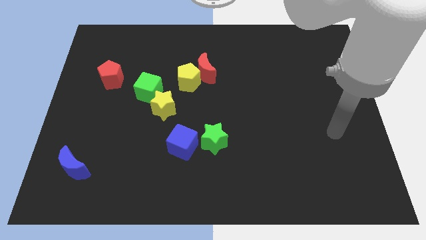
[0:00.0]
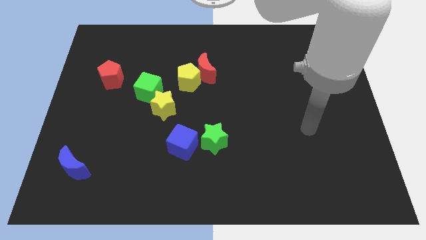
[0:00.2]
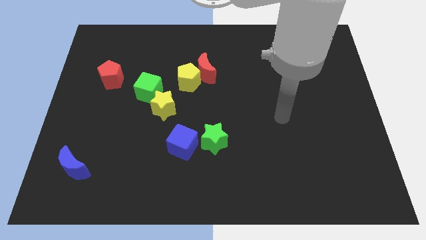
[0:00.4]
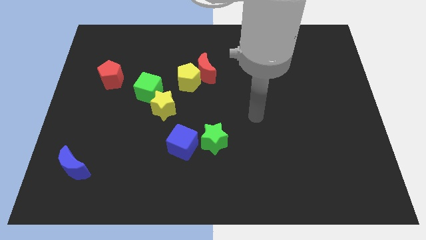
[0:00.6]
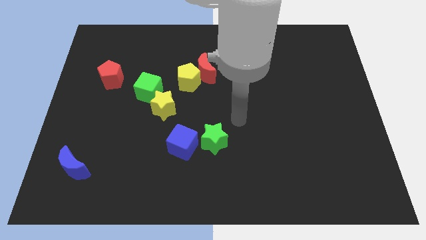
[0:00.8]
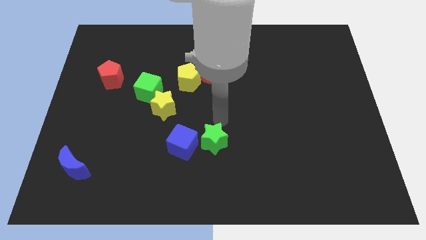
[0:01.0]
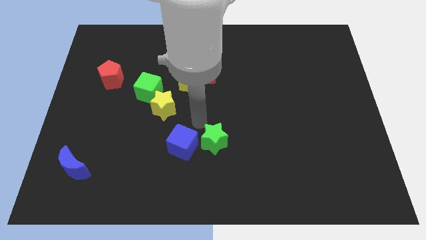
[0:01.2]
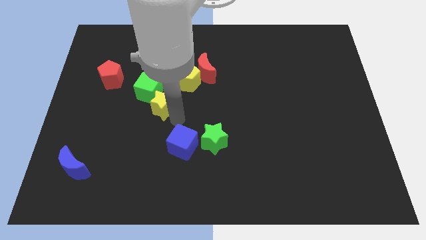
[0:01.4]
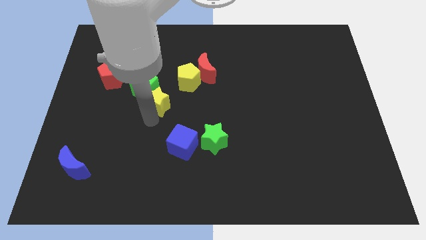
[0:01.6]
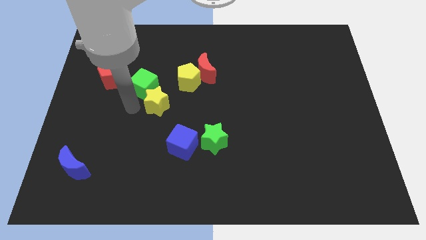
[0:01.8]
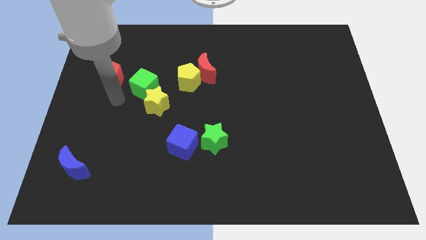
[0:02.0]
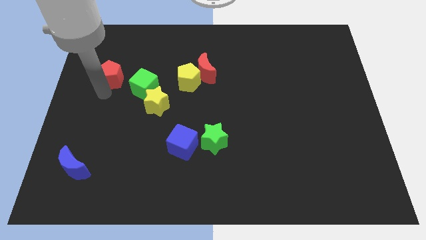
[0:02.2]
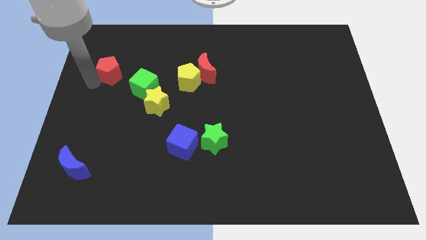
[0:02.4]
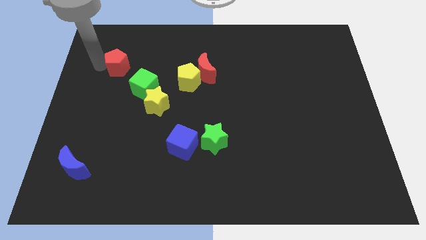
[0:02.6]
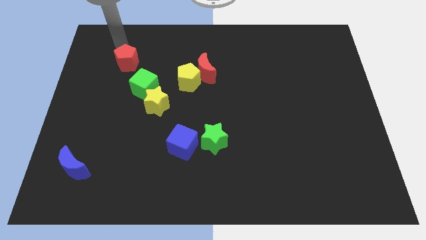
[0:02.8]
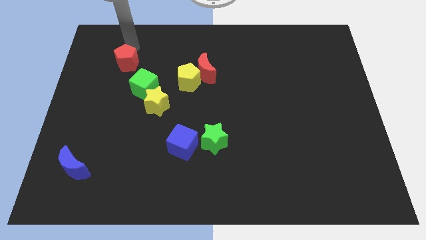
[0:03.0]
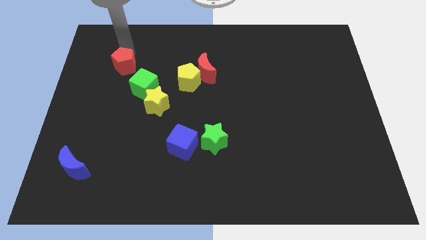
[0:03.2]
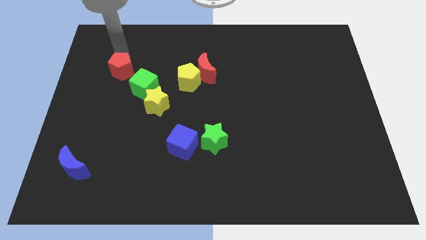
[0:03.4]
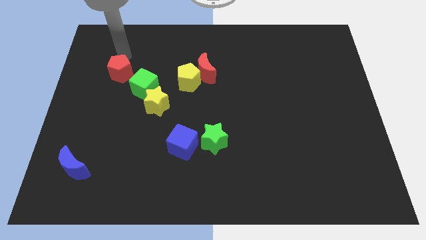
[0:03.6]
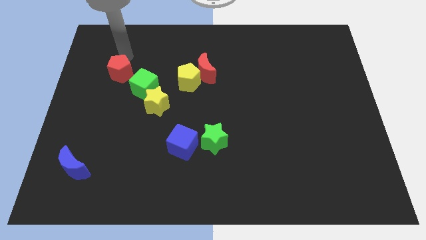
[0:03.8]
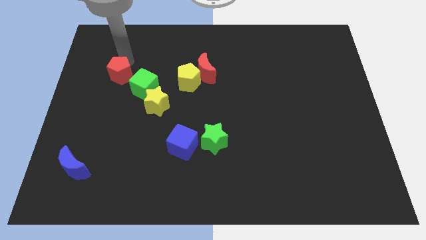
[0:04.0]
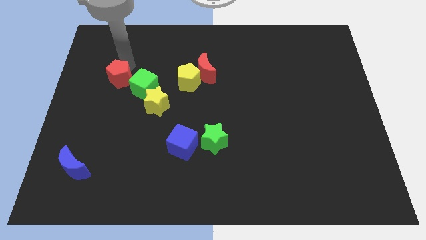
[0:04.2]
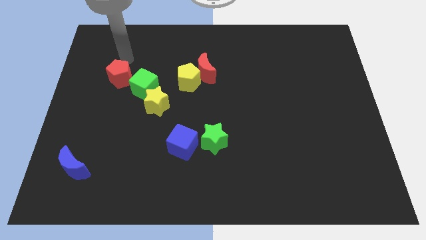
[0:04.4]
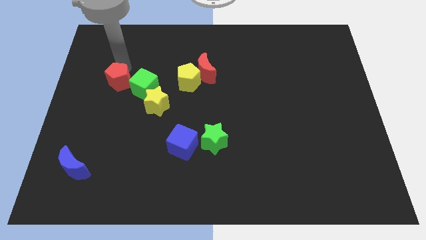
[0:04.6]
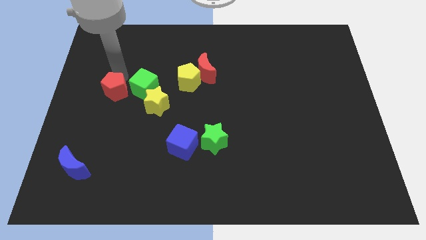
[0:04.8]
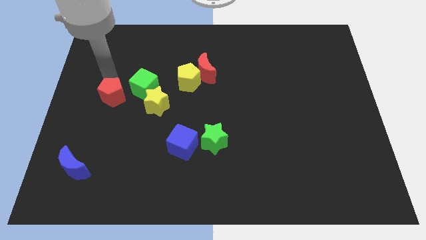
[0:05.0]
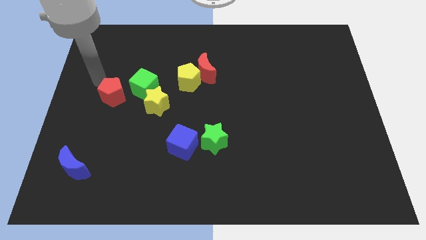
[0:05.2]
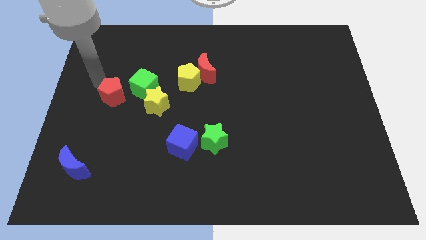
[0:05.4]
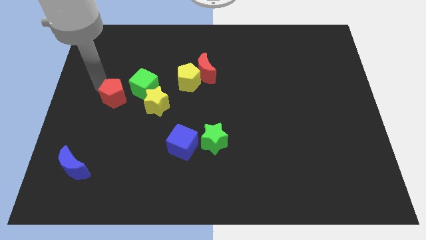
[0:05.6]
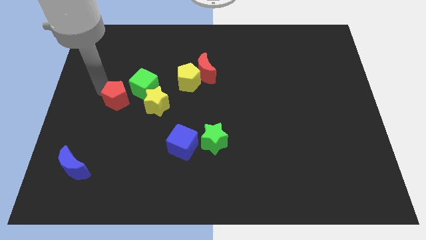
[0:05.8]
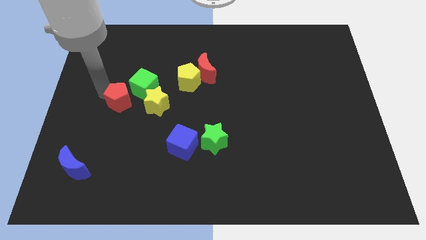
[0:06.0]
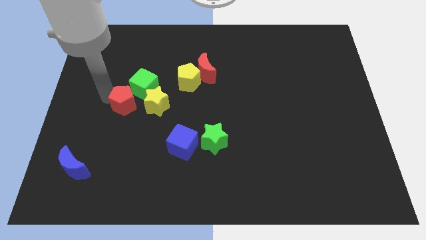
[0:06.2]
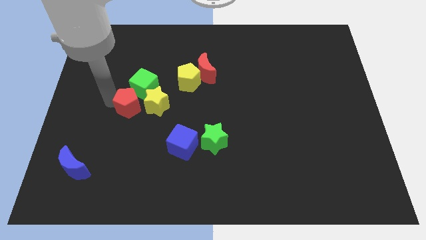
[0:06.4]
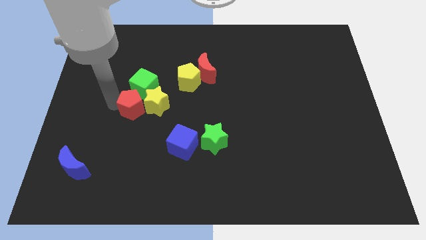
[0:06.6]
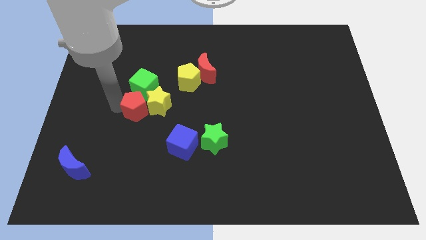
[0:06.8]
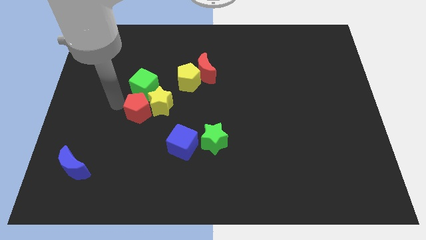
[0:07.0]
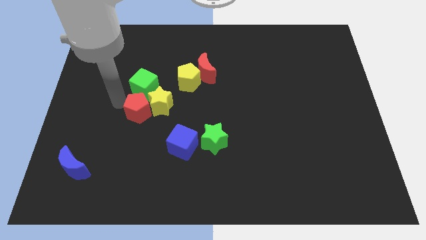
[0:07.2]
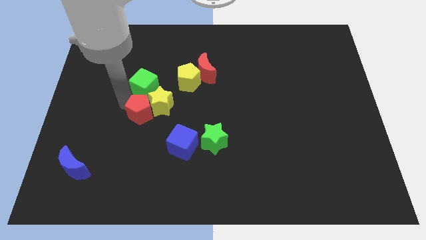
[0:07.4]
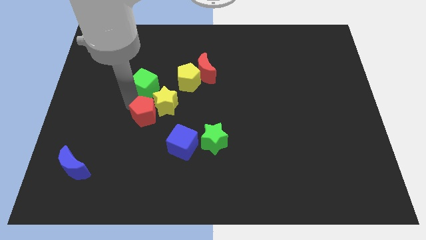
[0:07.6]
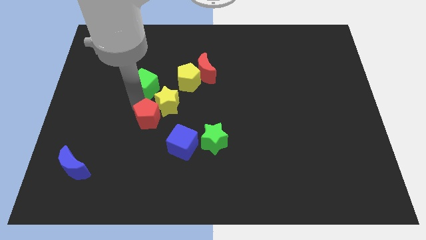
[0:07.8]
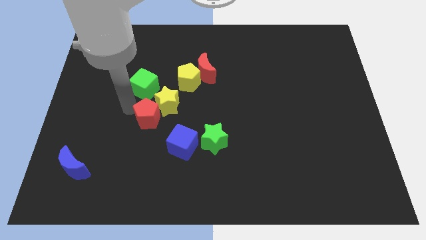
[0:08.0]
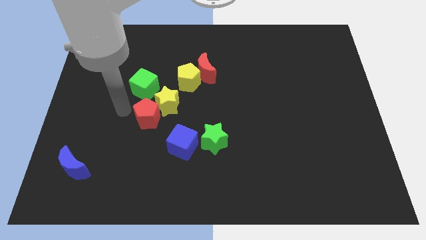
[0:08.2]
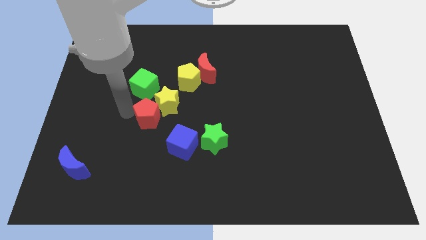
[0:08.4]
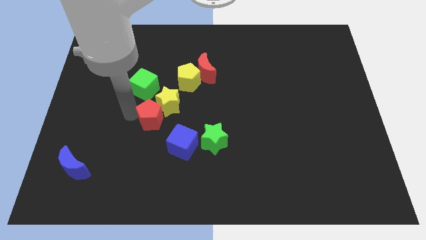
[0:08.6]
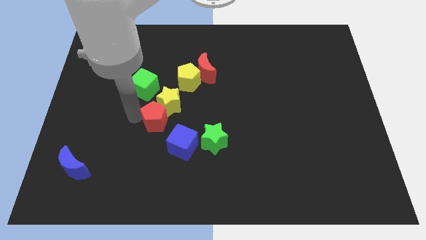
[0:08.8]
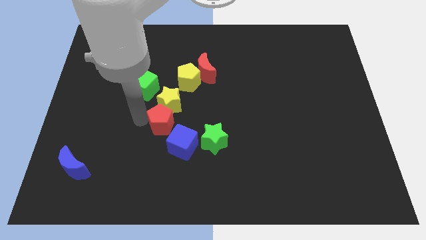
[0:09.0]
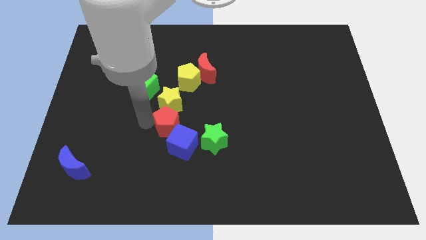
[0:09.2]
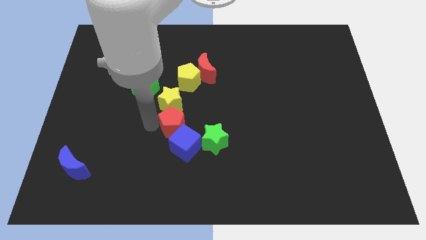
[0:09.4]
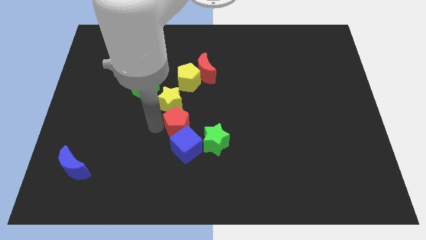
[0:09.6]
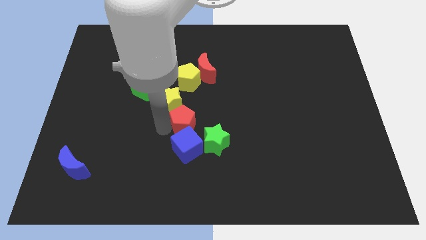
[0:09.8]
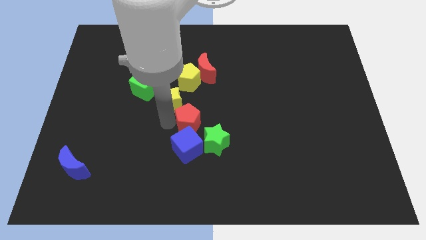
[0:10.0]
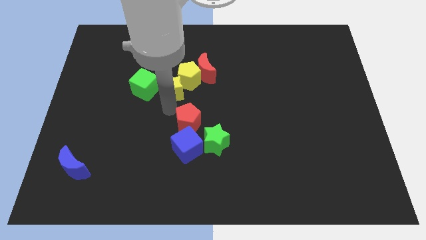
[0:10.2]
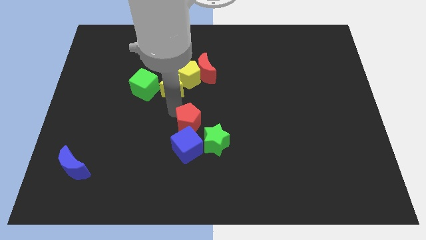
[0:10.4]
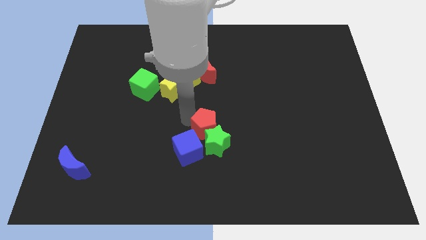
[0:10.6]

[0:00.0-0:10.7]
push the red pentagon next to the green star

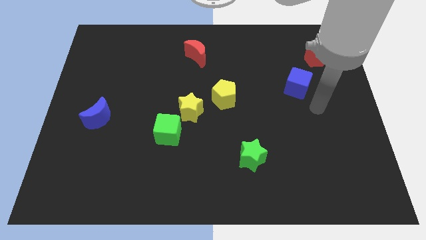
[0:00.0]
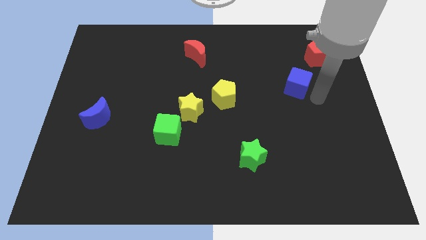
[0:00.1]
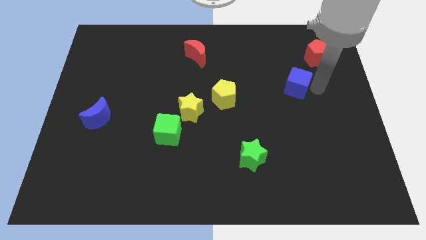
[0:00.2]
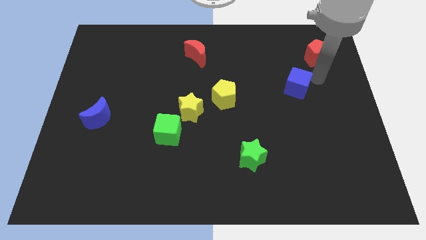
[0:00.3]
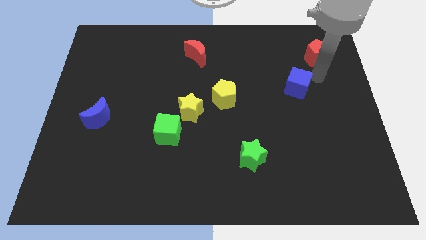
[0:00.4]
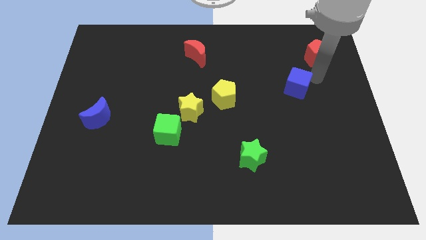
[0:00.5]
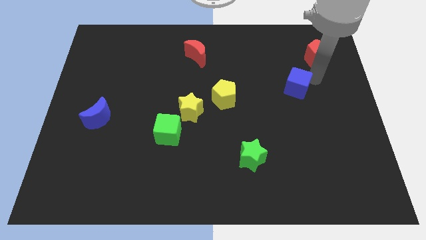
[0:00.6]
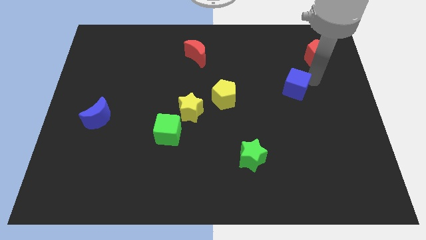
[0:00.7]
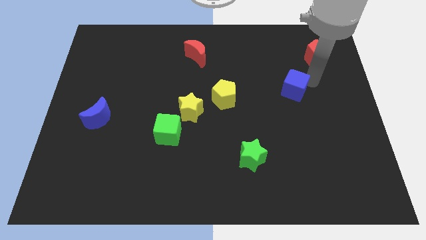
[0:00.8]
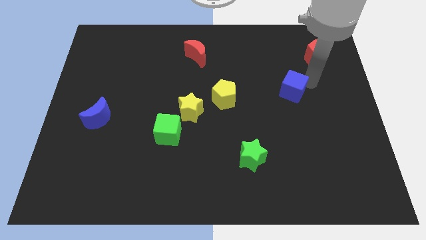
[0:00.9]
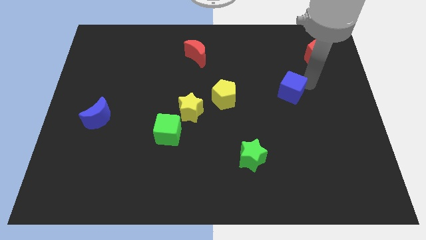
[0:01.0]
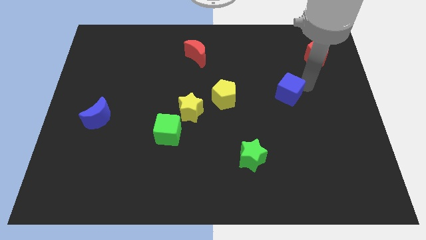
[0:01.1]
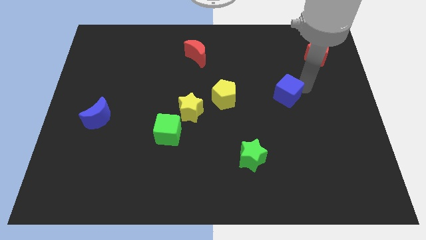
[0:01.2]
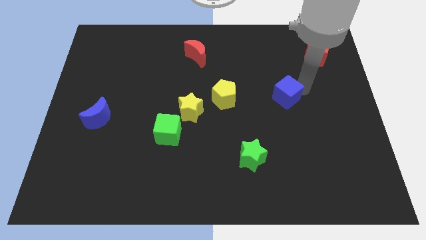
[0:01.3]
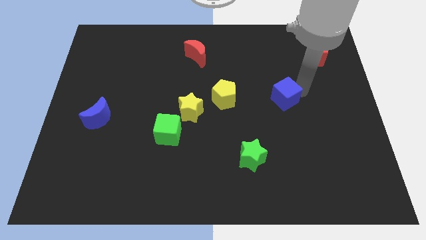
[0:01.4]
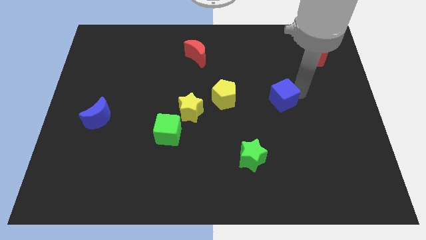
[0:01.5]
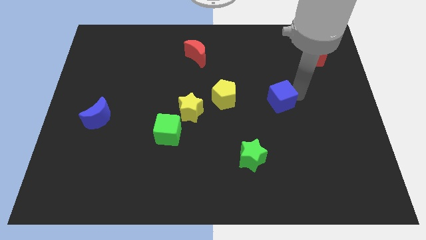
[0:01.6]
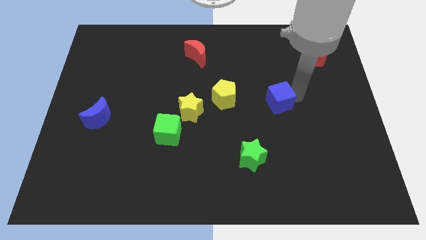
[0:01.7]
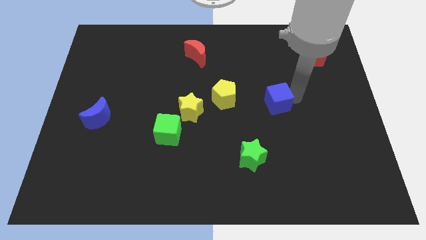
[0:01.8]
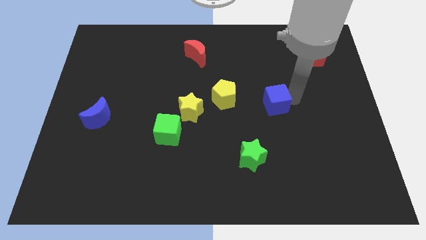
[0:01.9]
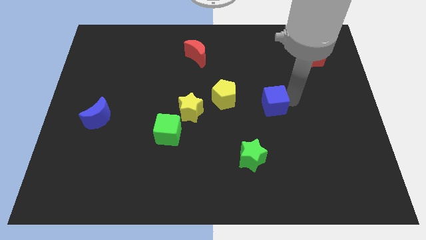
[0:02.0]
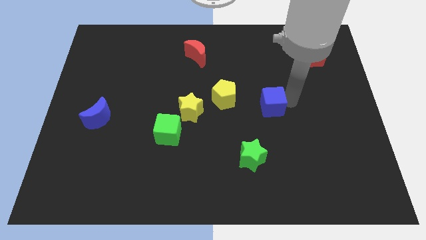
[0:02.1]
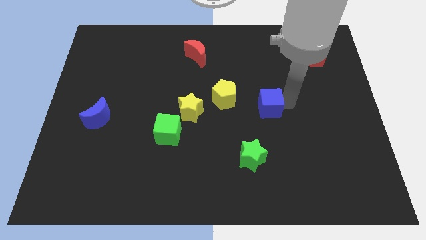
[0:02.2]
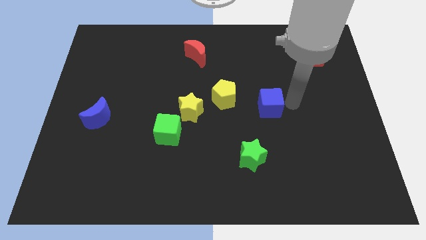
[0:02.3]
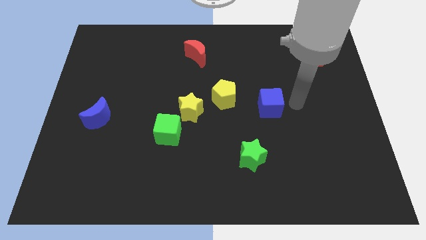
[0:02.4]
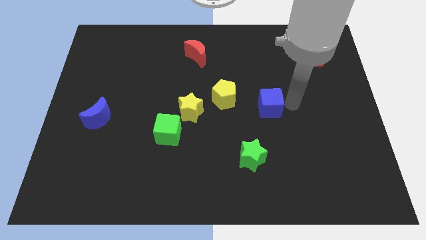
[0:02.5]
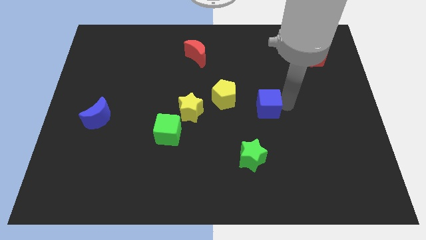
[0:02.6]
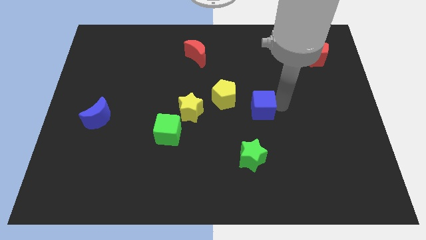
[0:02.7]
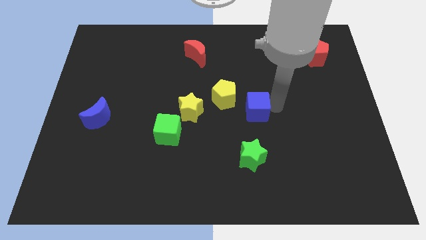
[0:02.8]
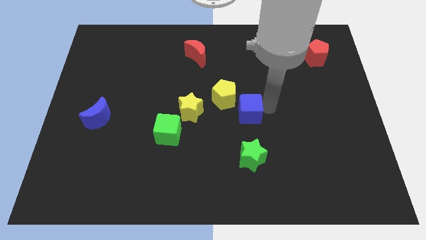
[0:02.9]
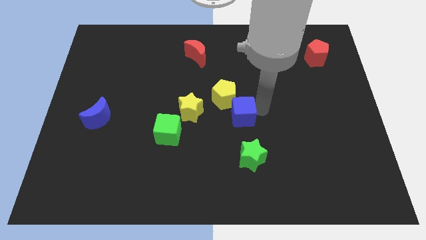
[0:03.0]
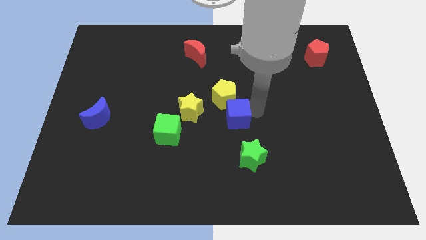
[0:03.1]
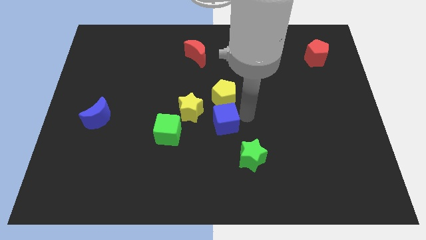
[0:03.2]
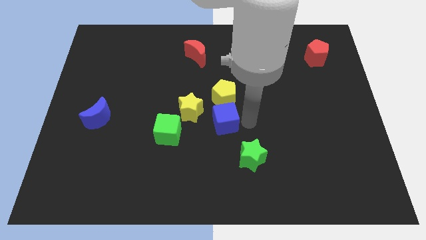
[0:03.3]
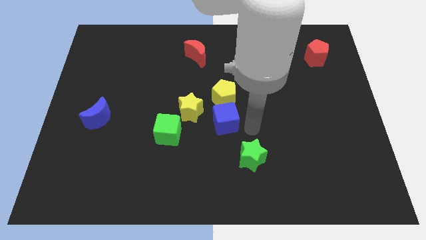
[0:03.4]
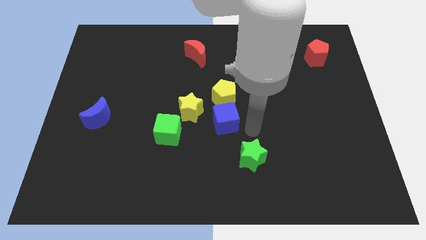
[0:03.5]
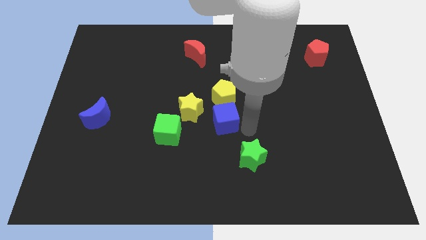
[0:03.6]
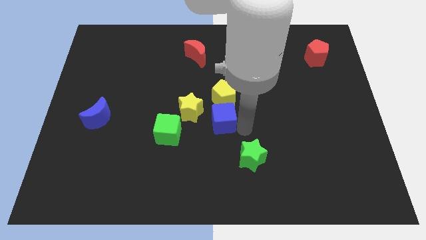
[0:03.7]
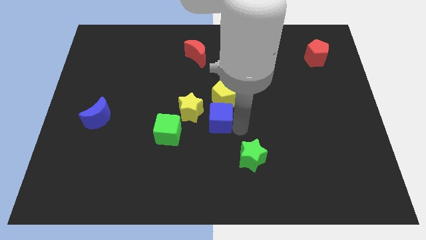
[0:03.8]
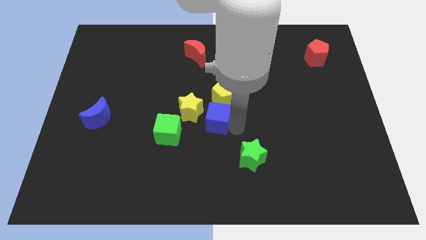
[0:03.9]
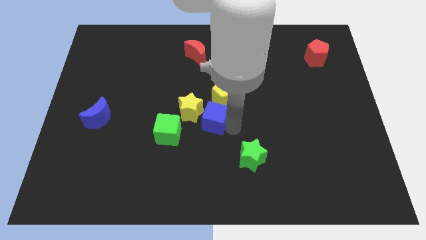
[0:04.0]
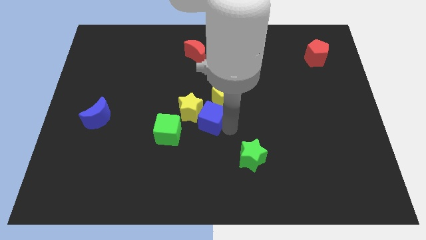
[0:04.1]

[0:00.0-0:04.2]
slide the blue cube towards the yellow star
